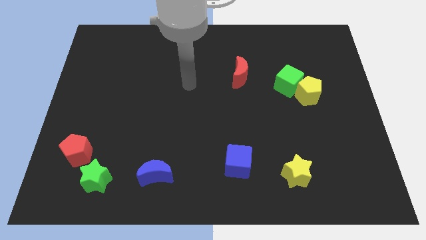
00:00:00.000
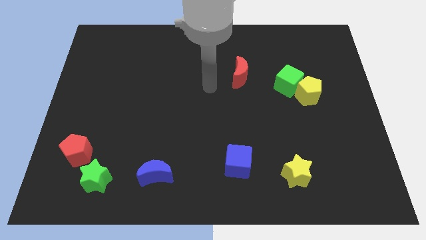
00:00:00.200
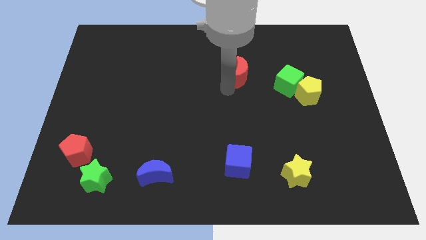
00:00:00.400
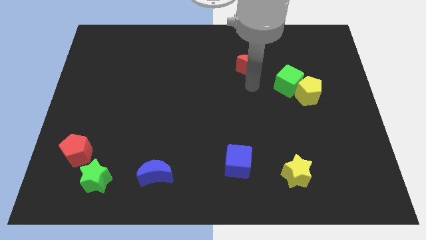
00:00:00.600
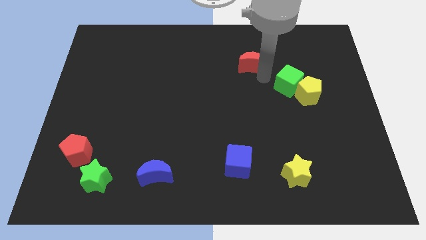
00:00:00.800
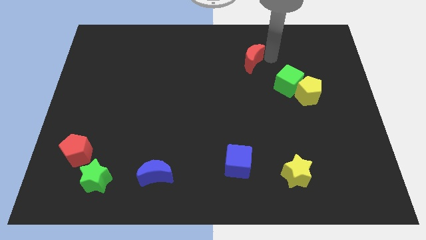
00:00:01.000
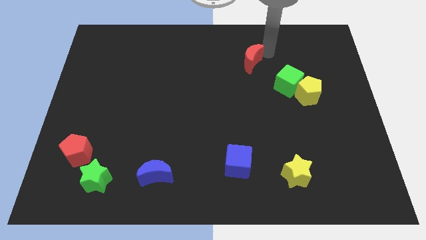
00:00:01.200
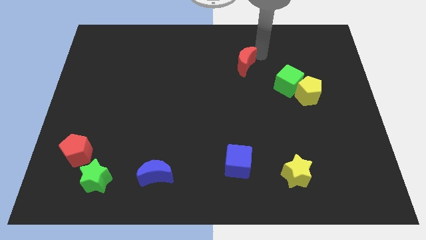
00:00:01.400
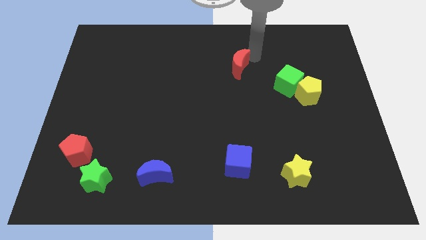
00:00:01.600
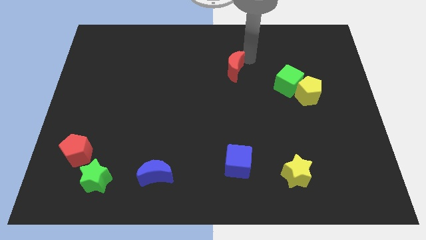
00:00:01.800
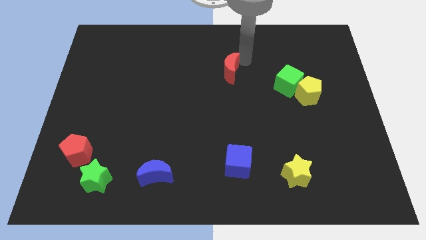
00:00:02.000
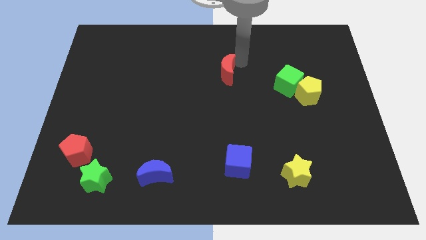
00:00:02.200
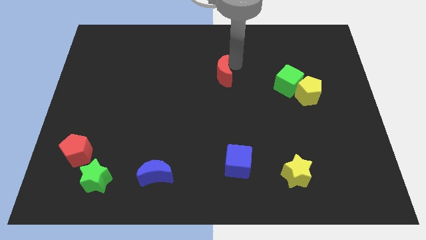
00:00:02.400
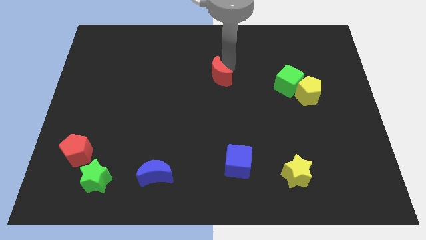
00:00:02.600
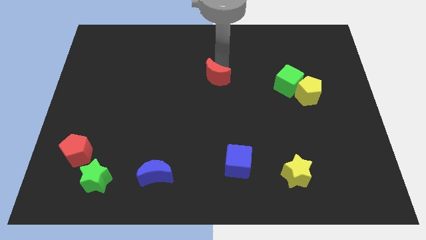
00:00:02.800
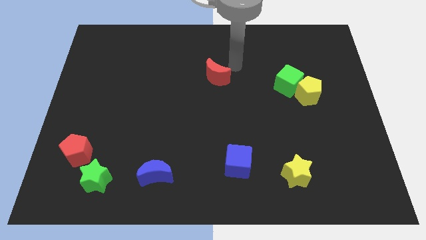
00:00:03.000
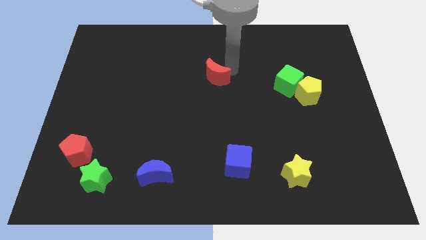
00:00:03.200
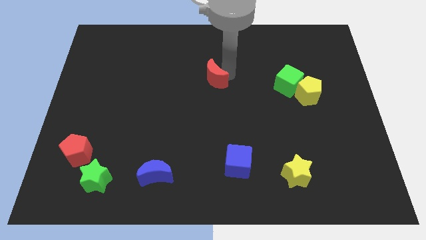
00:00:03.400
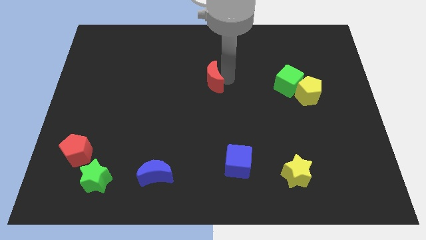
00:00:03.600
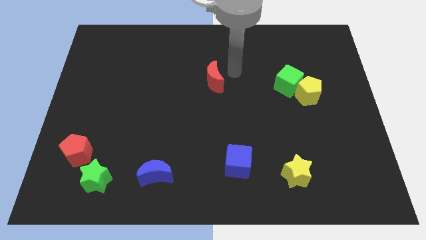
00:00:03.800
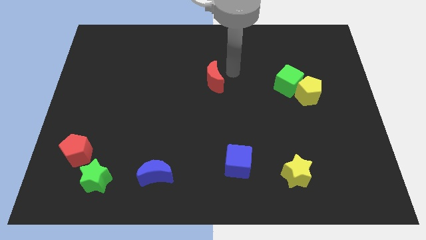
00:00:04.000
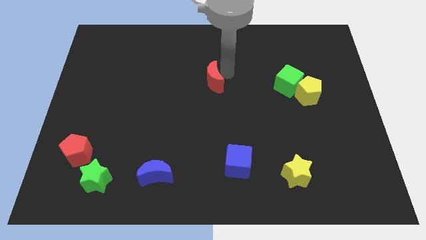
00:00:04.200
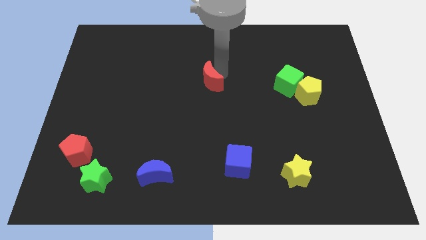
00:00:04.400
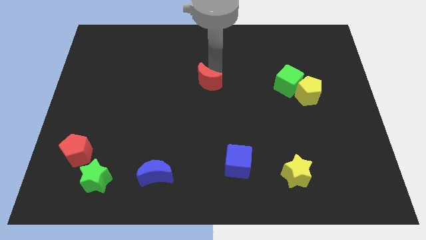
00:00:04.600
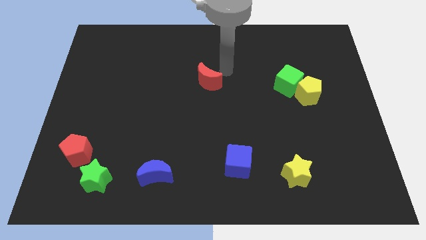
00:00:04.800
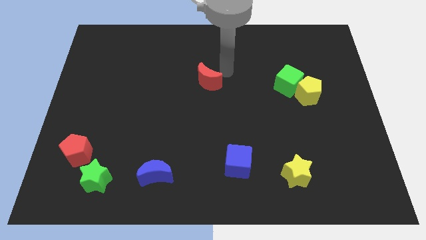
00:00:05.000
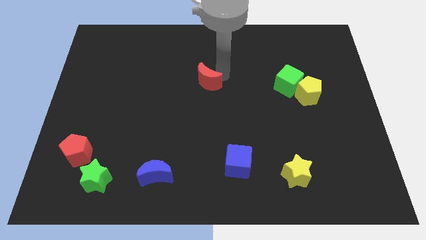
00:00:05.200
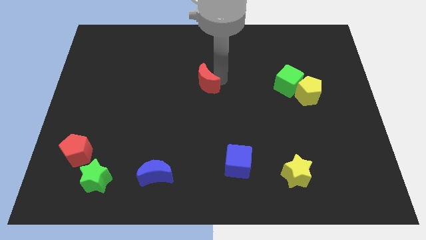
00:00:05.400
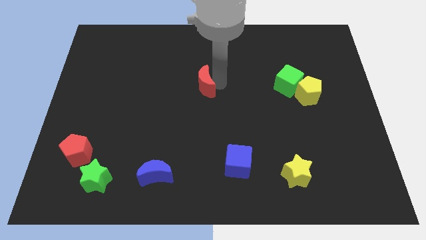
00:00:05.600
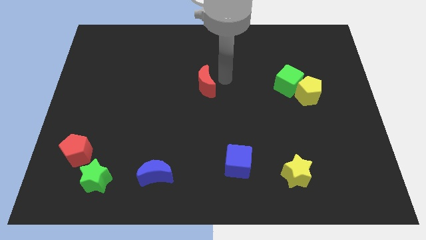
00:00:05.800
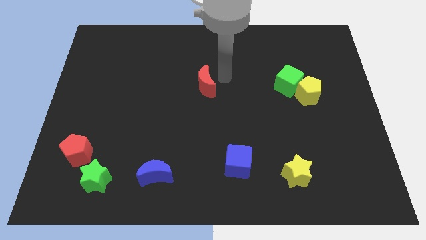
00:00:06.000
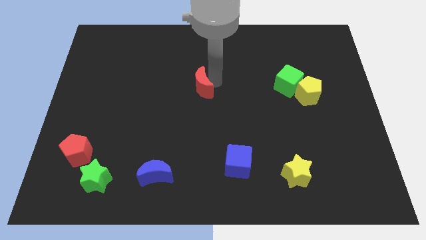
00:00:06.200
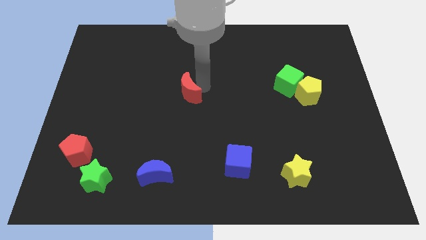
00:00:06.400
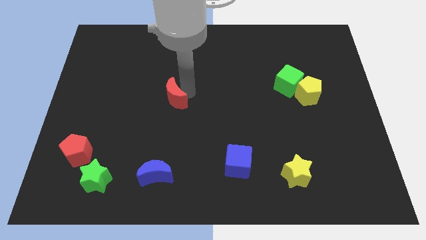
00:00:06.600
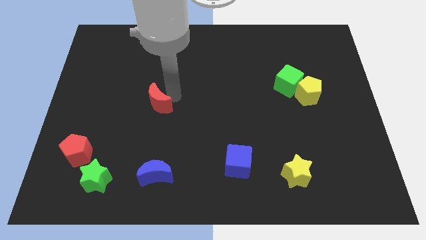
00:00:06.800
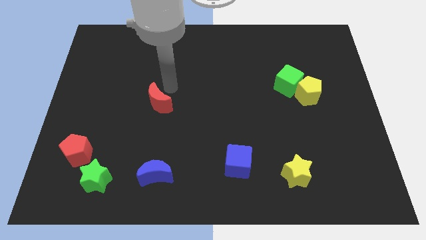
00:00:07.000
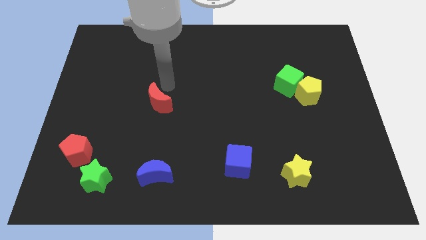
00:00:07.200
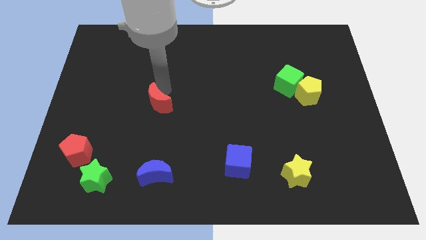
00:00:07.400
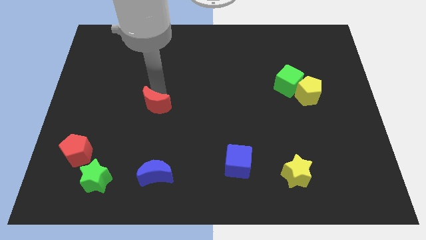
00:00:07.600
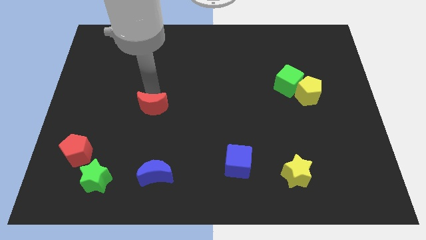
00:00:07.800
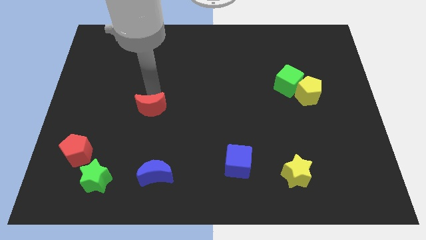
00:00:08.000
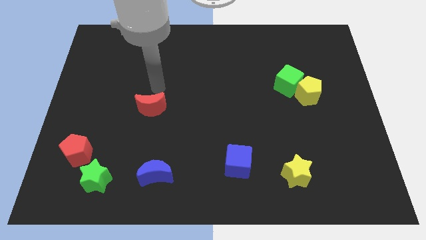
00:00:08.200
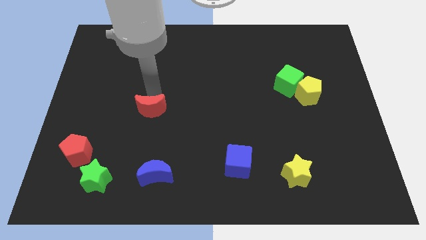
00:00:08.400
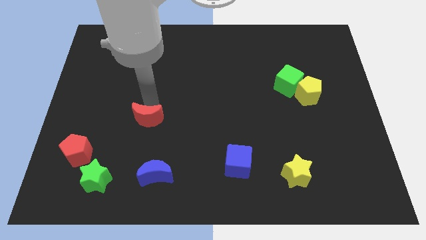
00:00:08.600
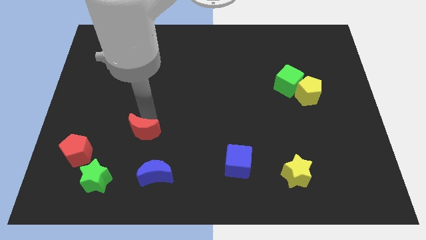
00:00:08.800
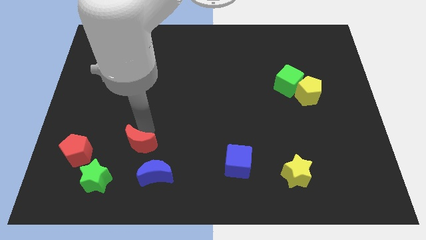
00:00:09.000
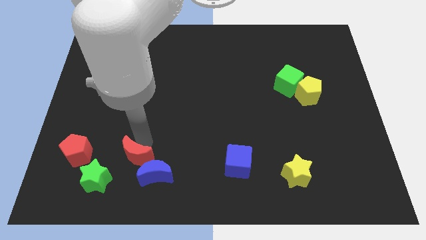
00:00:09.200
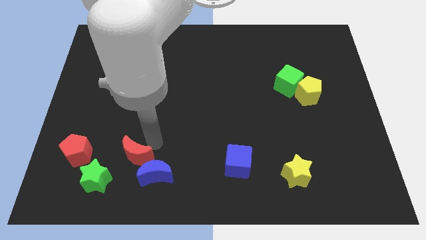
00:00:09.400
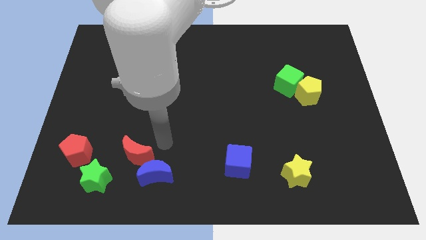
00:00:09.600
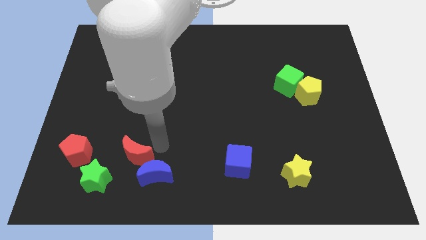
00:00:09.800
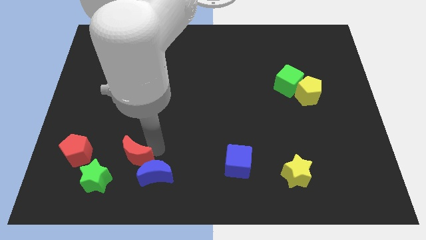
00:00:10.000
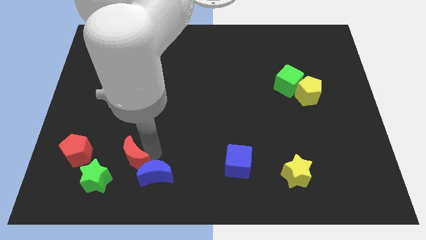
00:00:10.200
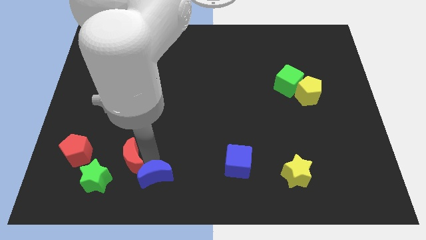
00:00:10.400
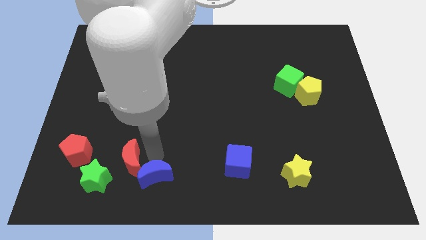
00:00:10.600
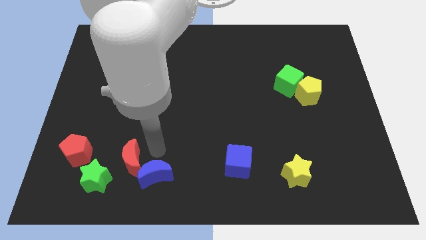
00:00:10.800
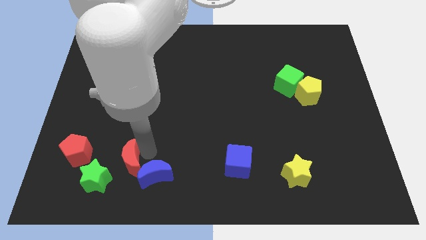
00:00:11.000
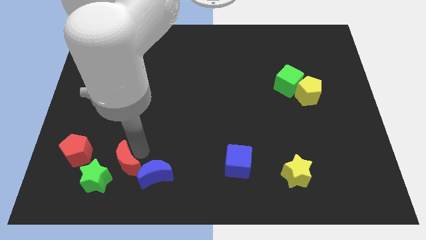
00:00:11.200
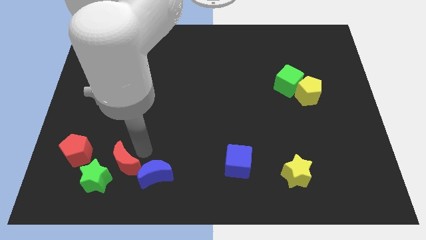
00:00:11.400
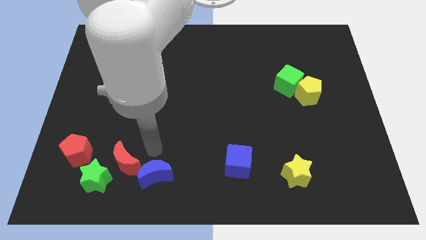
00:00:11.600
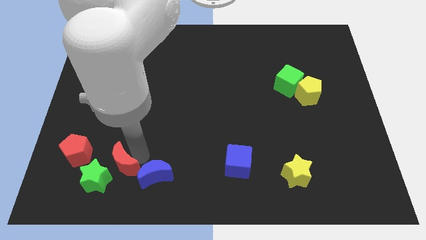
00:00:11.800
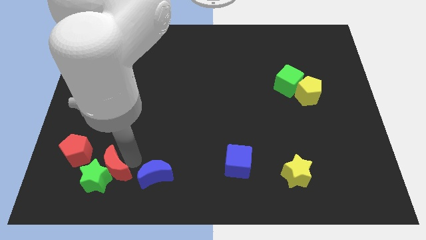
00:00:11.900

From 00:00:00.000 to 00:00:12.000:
slide the red moon close to the green star

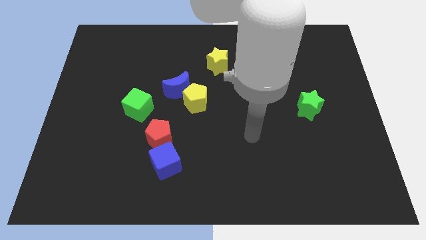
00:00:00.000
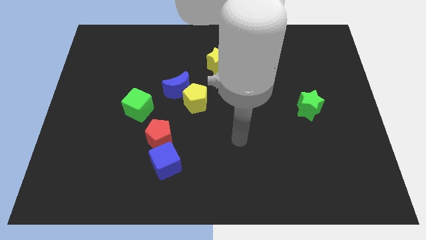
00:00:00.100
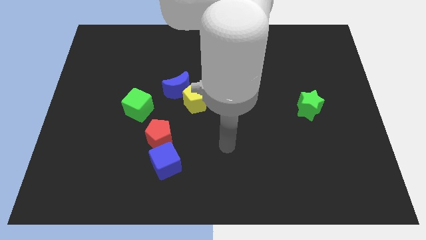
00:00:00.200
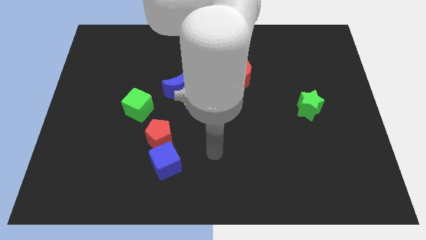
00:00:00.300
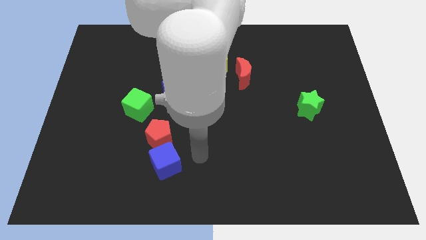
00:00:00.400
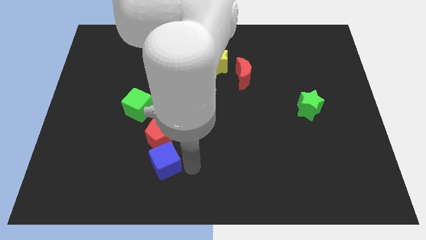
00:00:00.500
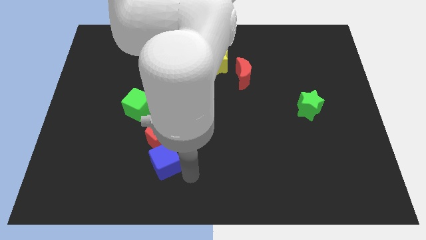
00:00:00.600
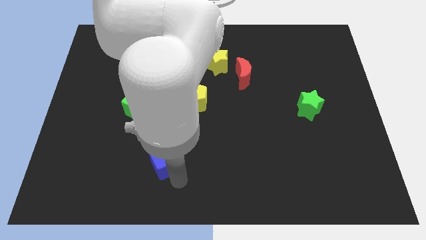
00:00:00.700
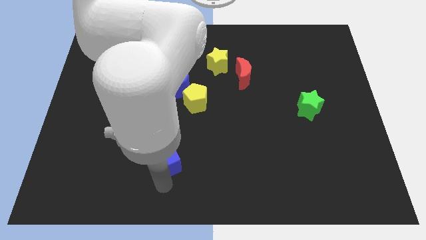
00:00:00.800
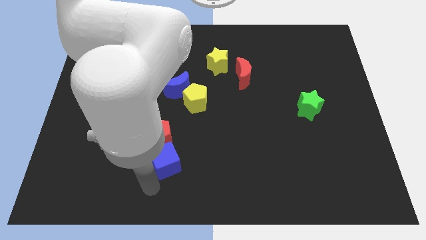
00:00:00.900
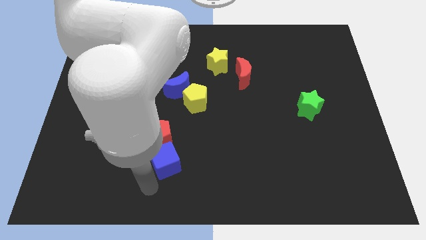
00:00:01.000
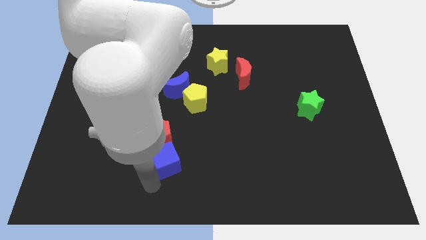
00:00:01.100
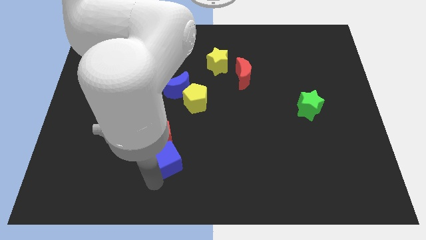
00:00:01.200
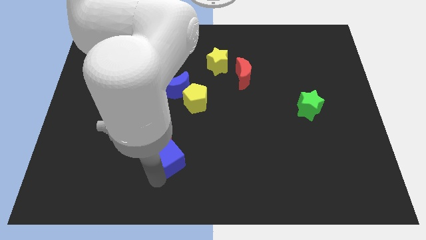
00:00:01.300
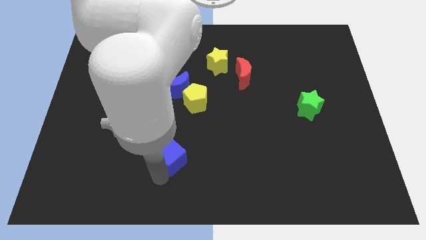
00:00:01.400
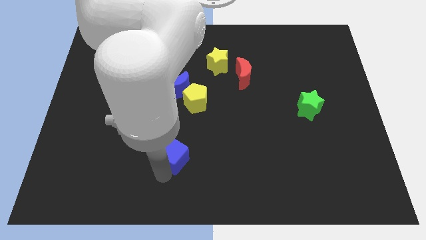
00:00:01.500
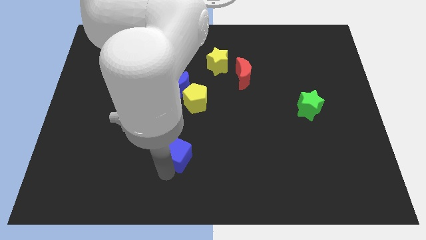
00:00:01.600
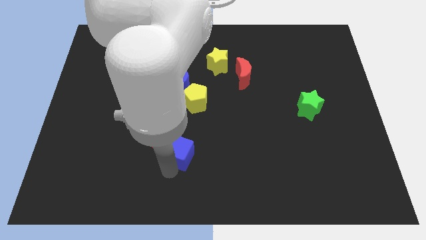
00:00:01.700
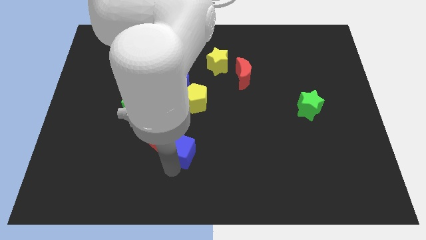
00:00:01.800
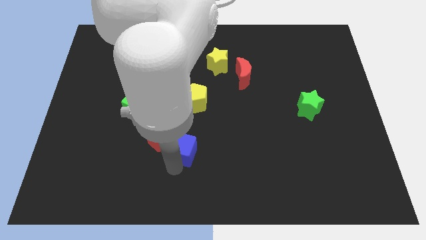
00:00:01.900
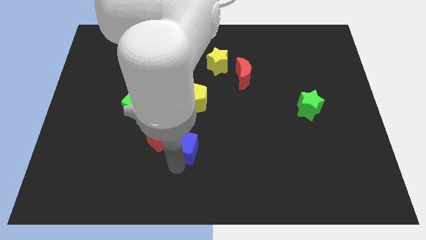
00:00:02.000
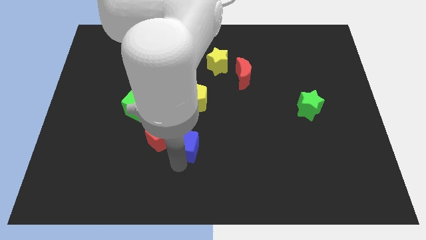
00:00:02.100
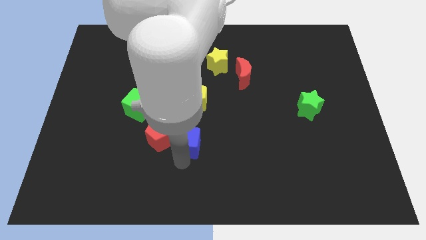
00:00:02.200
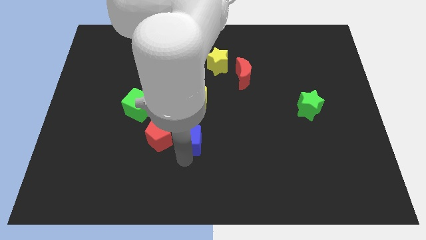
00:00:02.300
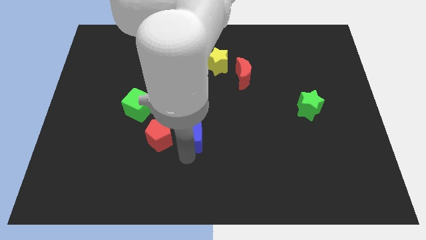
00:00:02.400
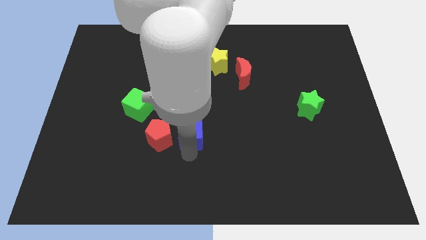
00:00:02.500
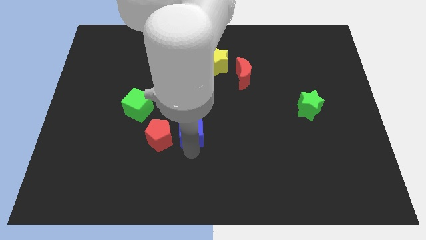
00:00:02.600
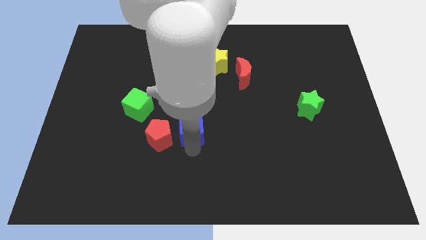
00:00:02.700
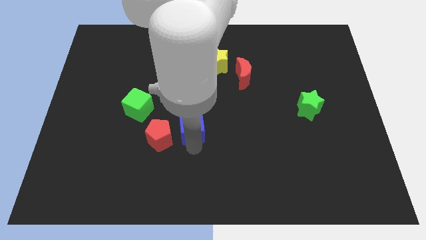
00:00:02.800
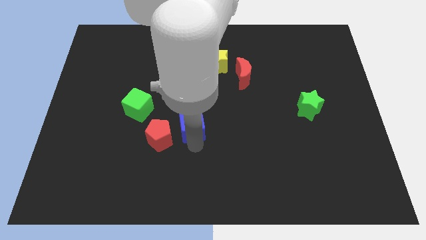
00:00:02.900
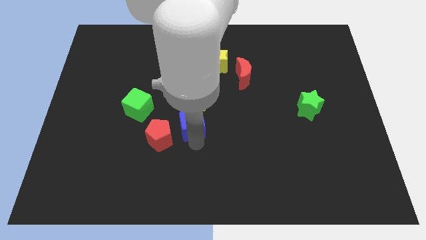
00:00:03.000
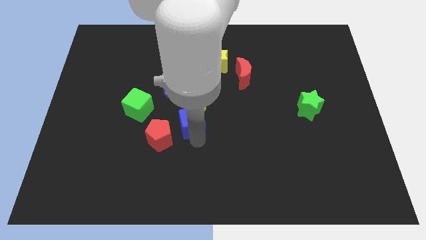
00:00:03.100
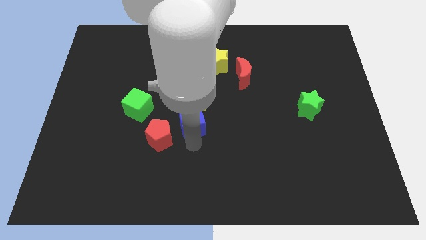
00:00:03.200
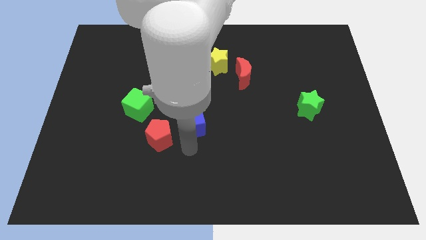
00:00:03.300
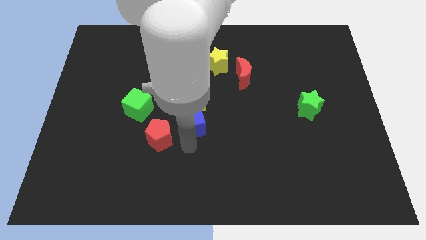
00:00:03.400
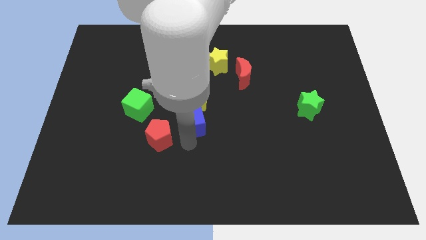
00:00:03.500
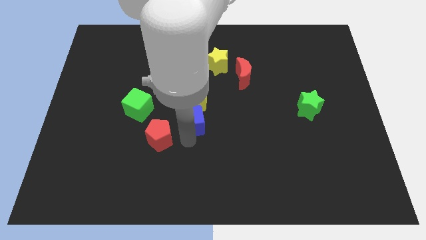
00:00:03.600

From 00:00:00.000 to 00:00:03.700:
push the blue cube next to the yellow pentagon
